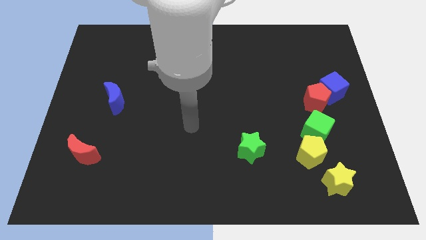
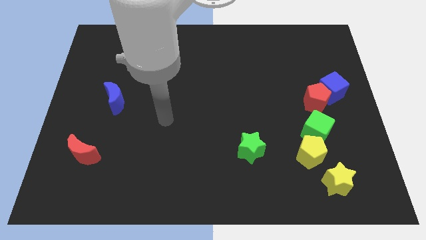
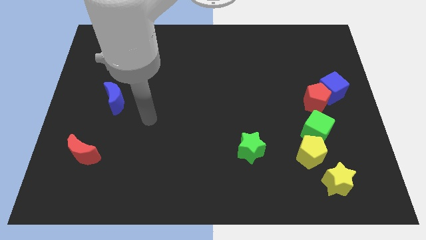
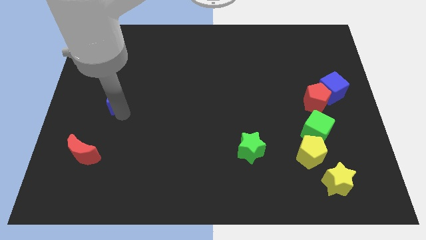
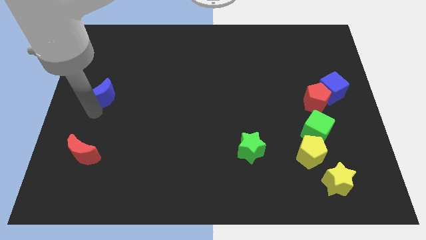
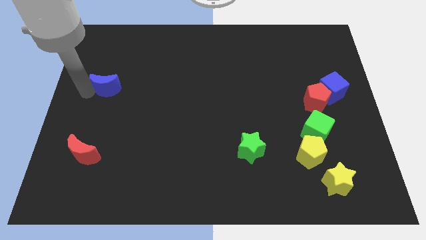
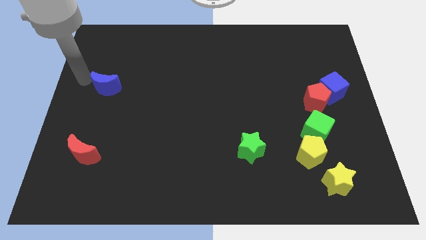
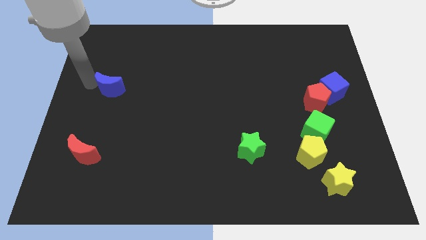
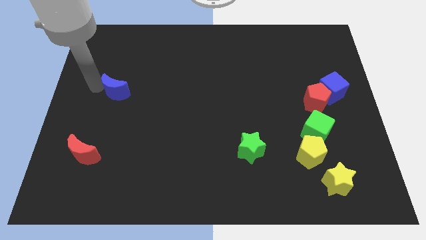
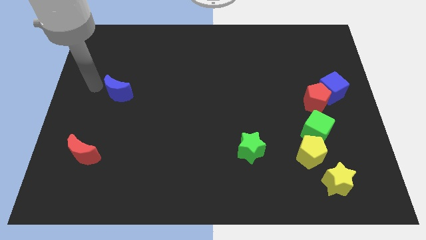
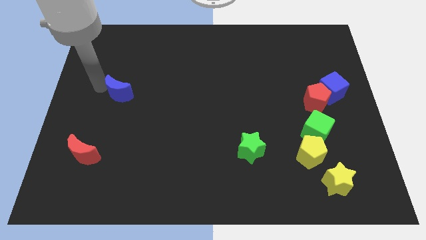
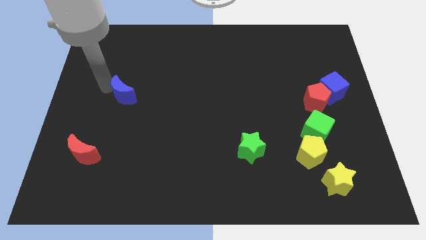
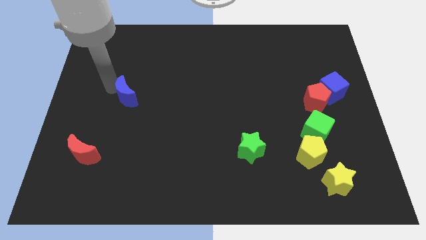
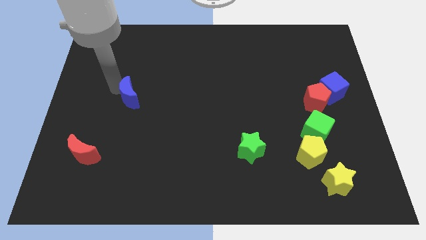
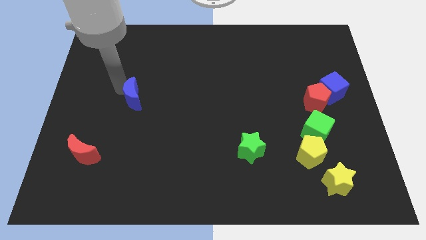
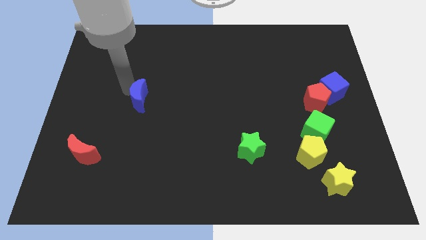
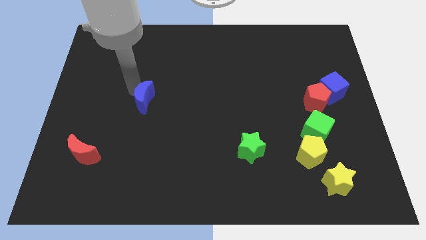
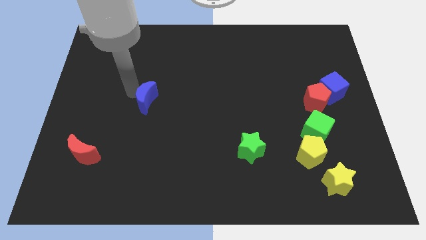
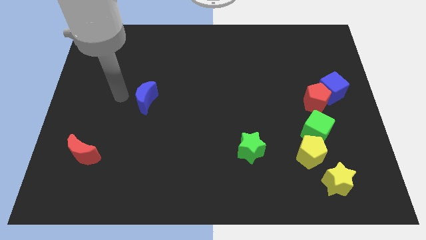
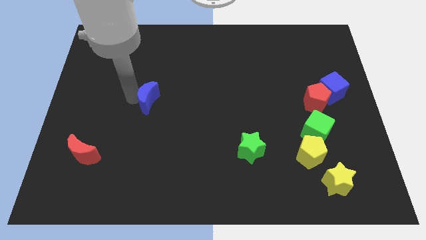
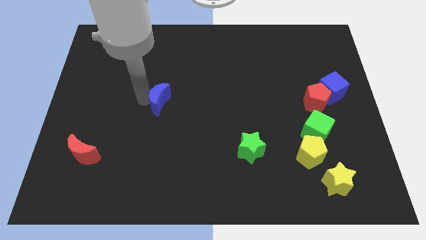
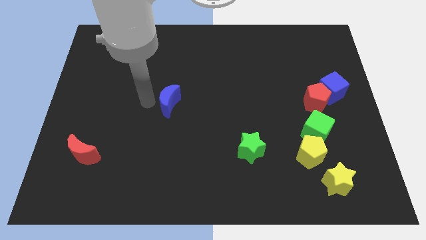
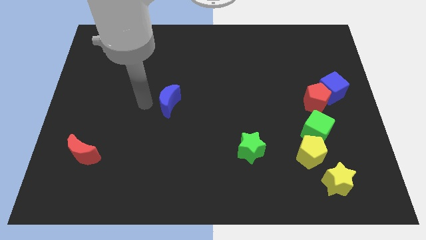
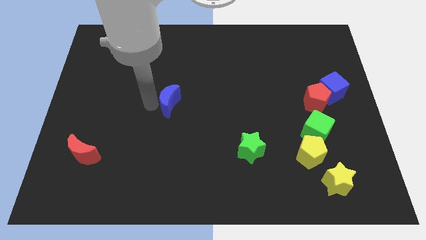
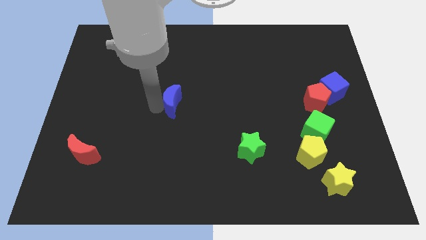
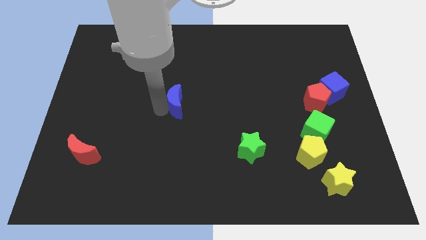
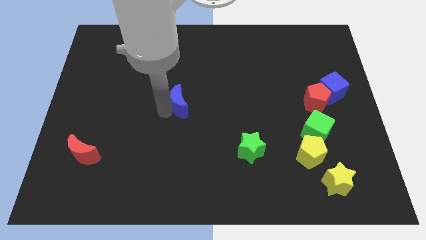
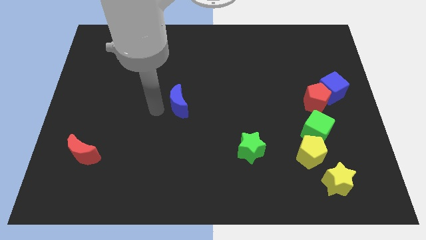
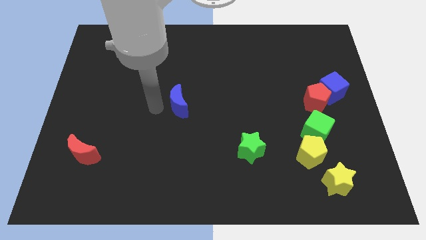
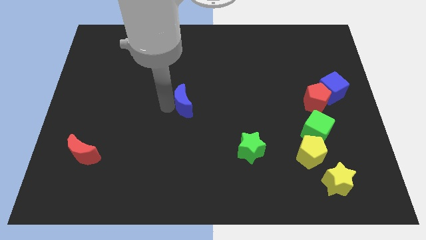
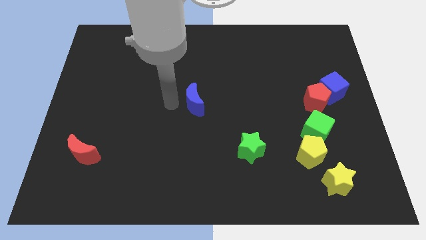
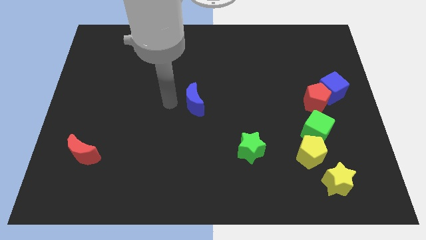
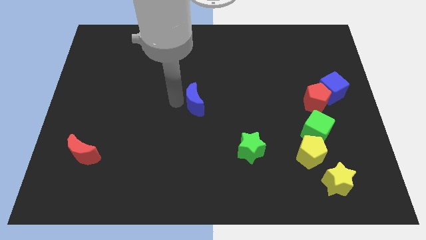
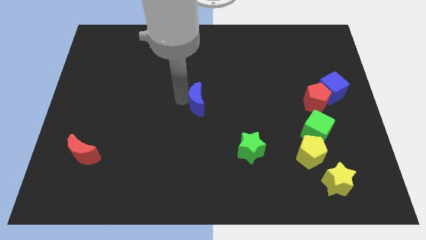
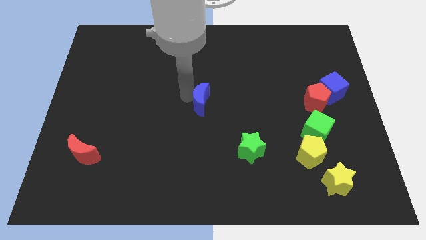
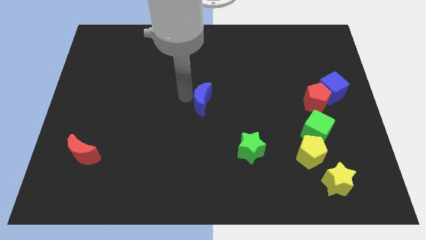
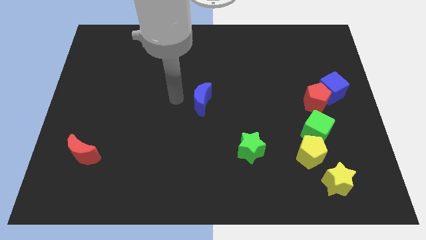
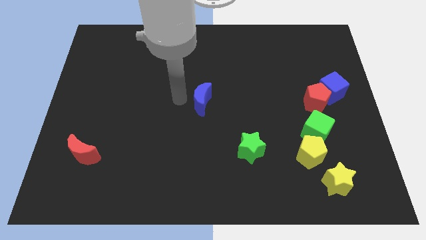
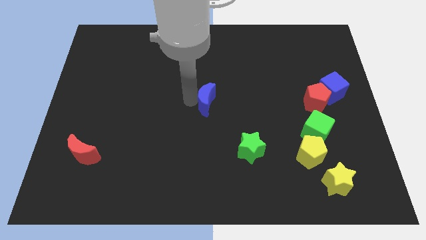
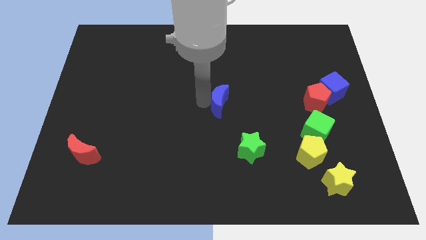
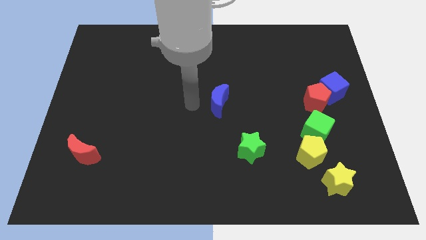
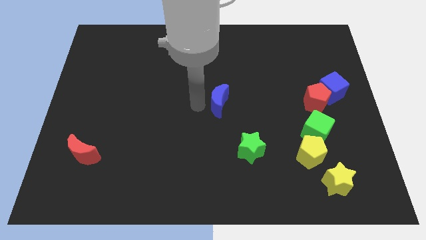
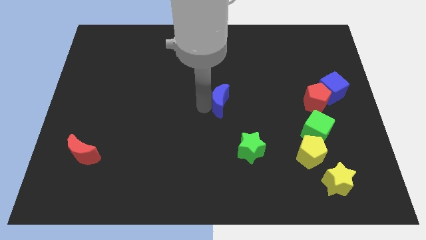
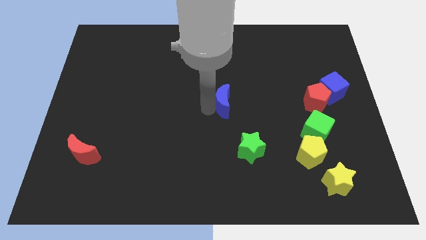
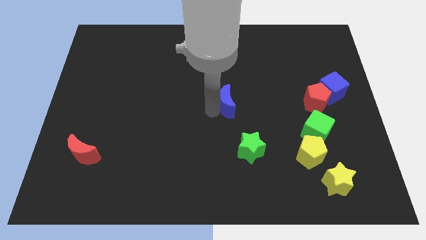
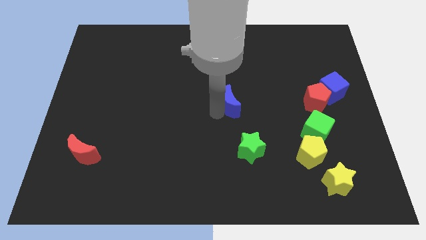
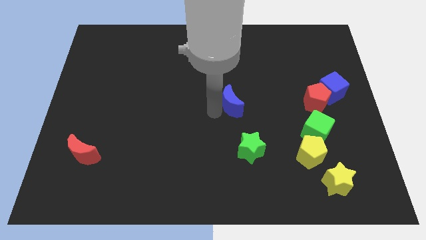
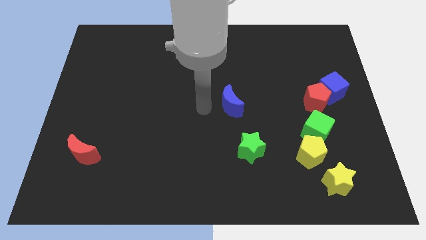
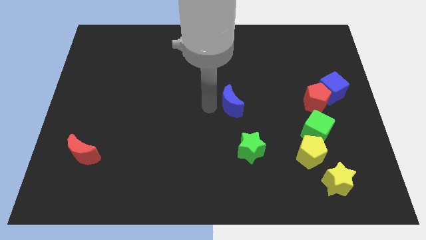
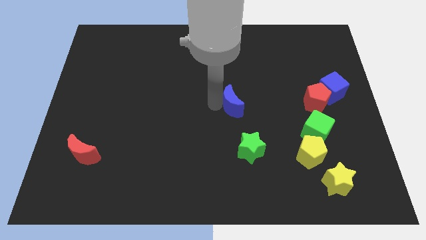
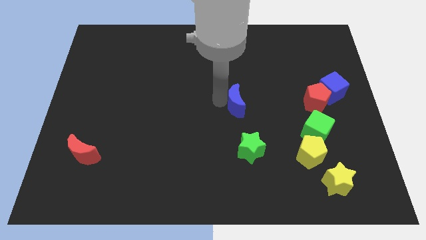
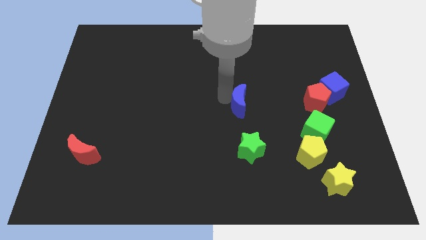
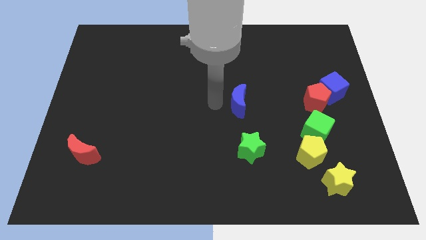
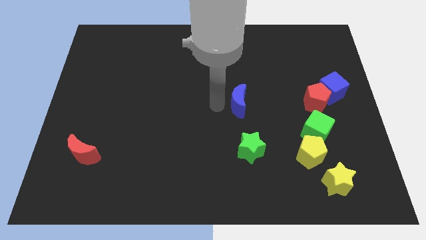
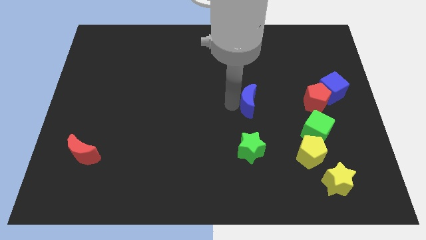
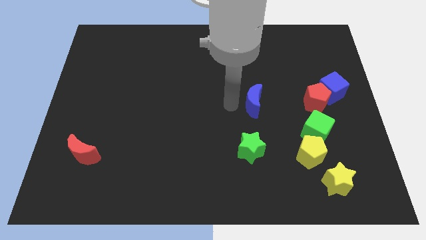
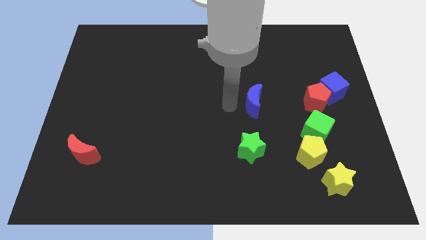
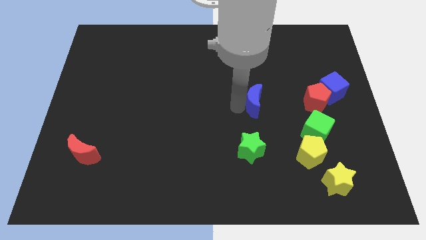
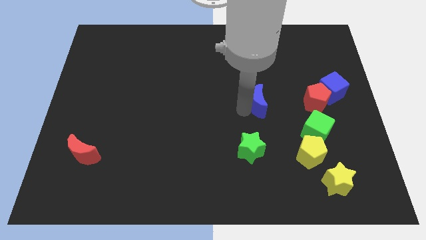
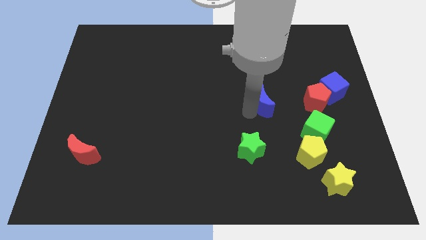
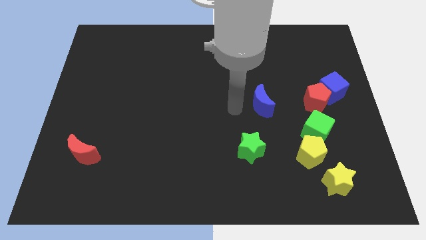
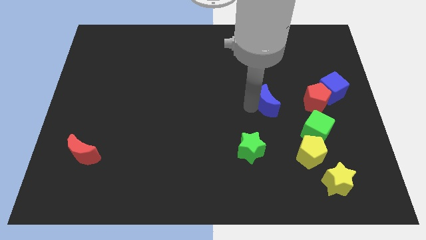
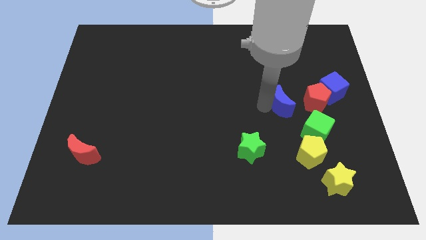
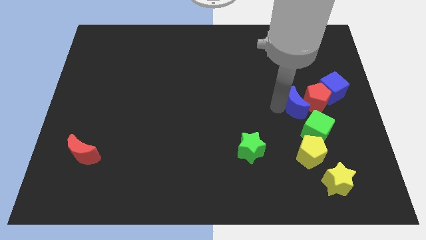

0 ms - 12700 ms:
put the blue moon next to the red pentagon

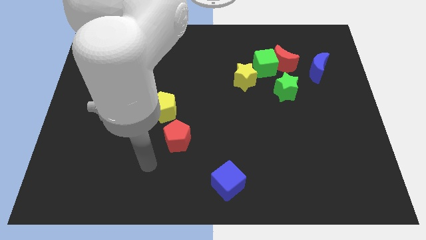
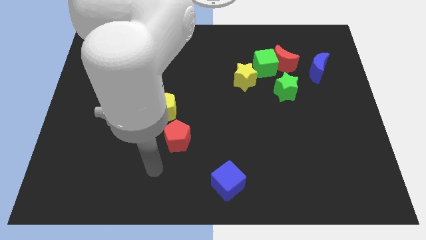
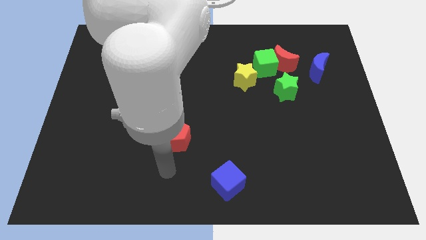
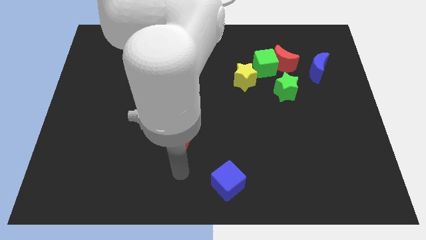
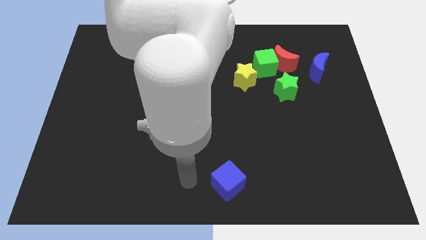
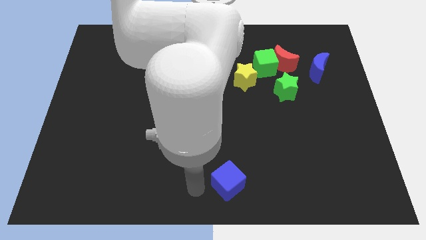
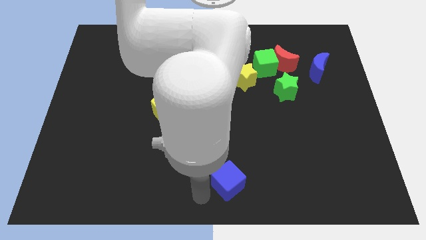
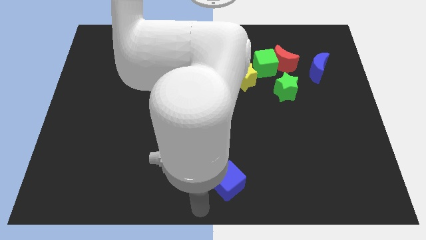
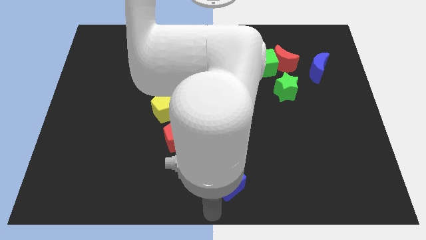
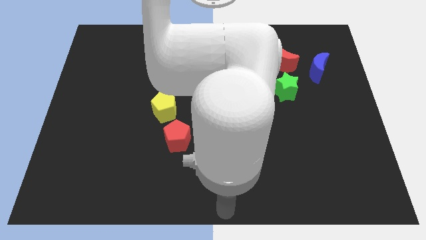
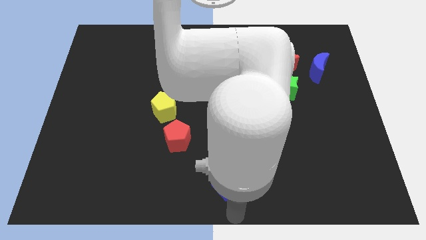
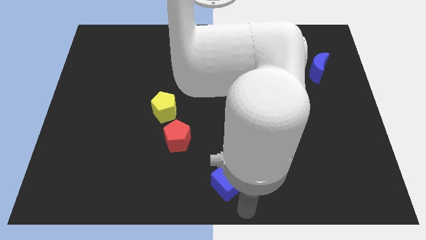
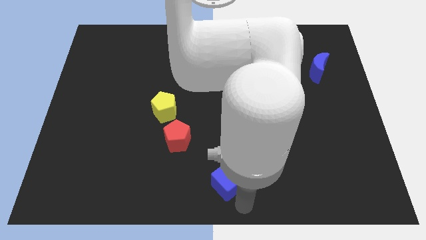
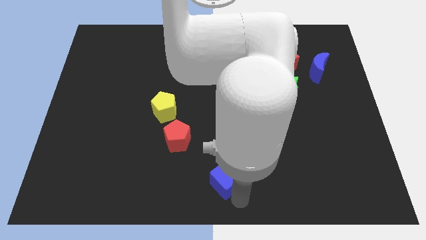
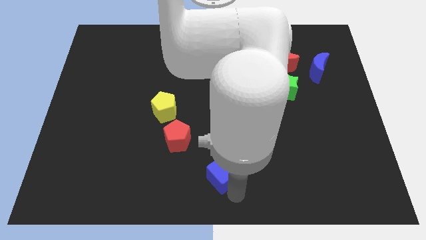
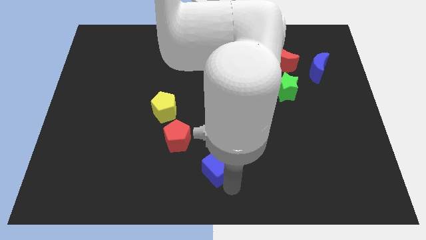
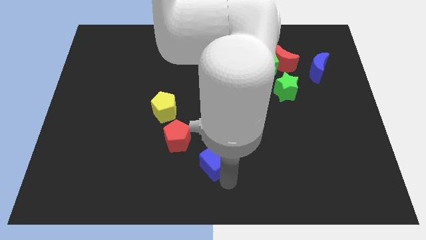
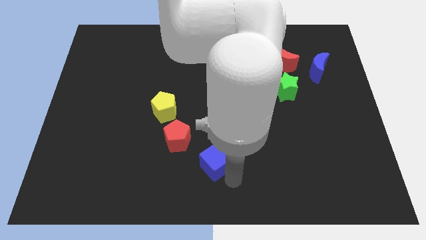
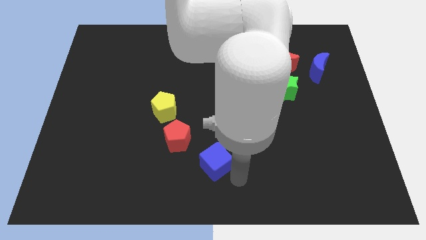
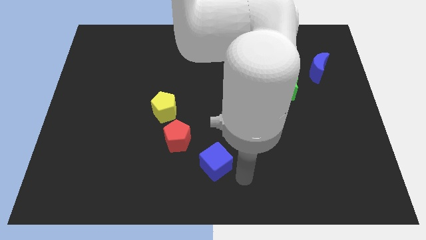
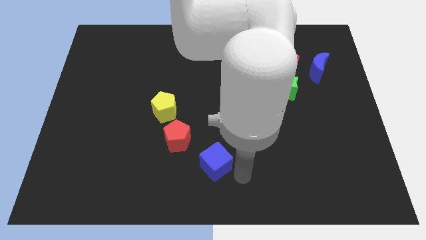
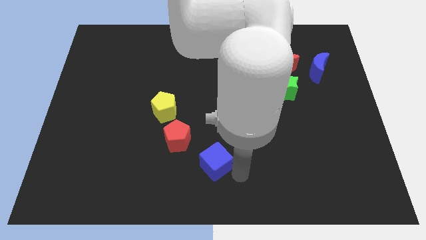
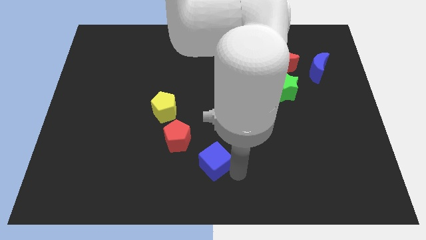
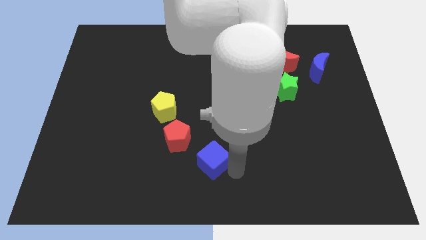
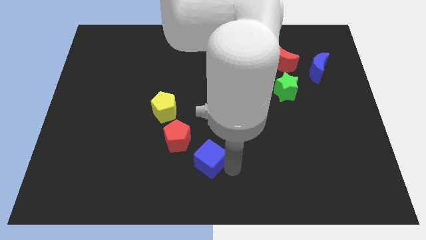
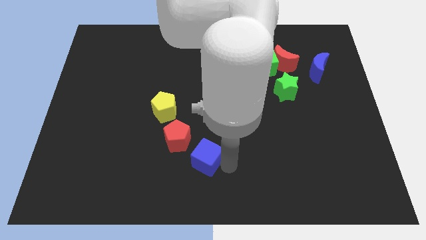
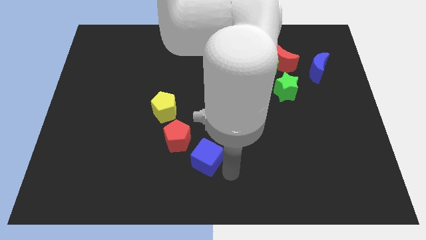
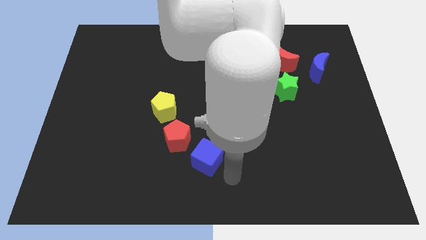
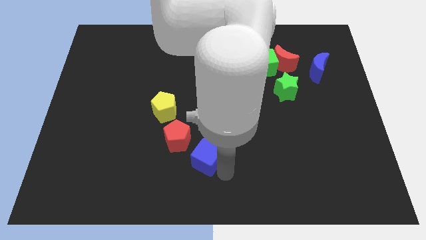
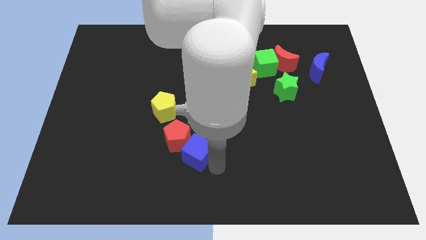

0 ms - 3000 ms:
put the blue cube to the red pentagon
